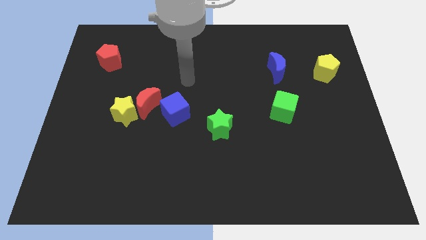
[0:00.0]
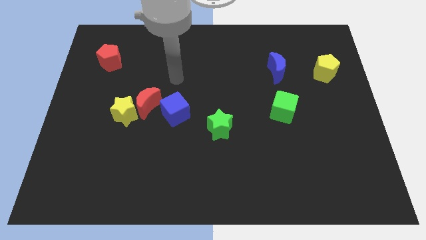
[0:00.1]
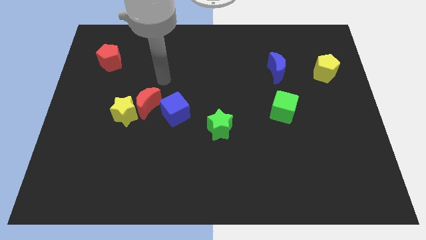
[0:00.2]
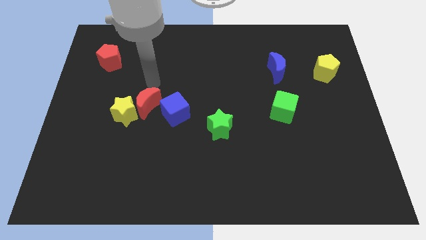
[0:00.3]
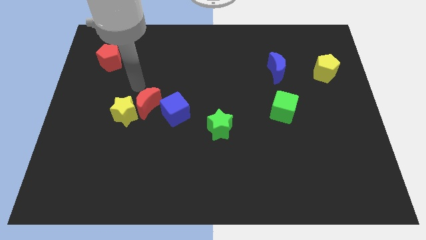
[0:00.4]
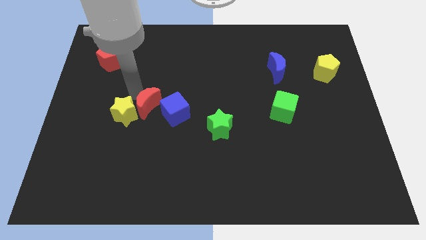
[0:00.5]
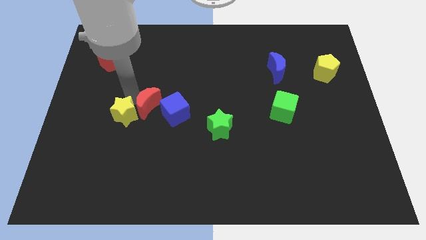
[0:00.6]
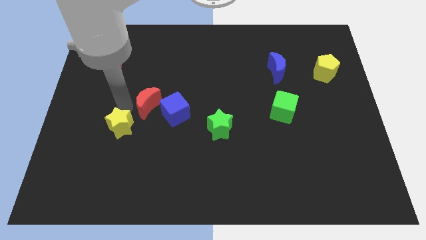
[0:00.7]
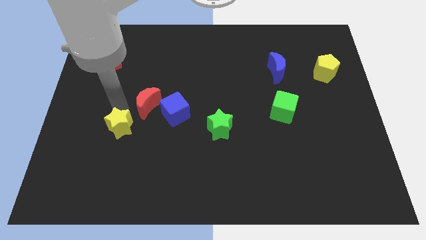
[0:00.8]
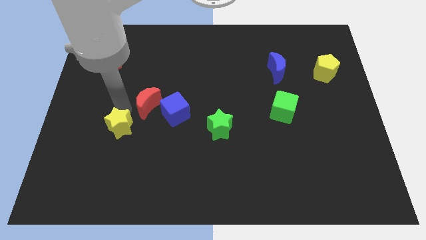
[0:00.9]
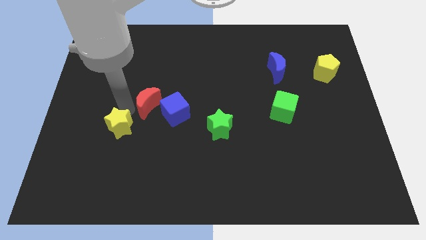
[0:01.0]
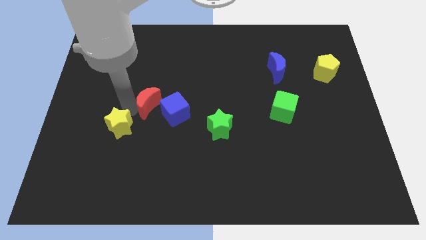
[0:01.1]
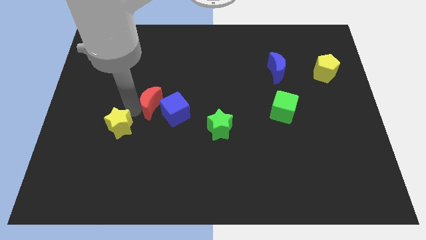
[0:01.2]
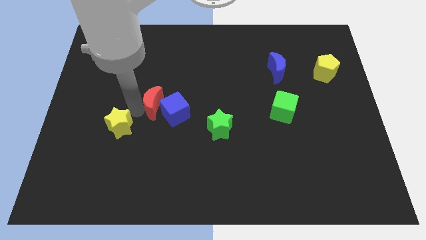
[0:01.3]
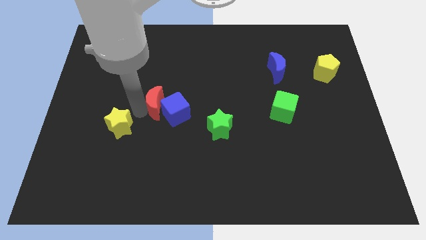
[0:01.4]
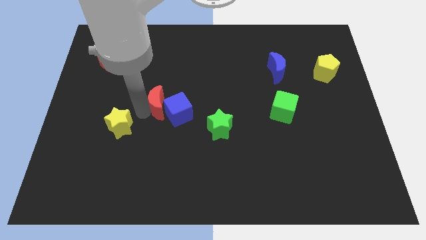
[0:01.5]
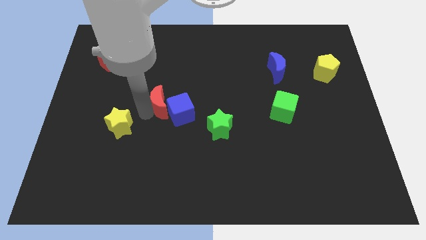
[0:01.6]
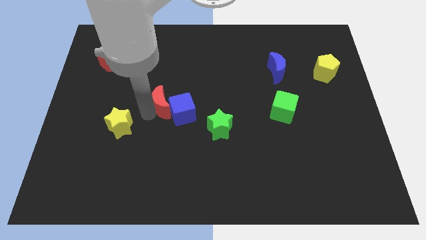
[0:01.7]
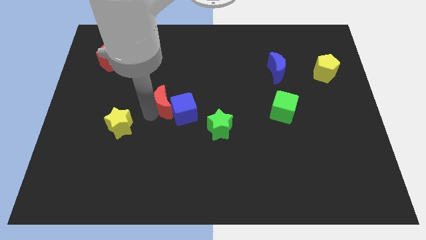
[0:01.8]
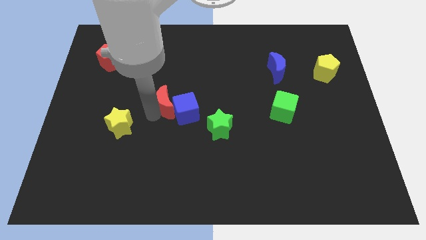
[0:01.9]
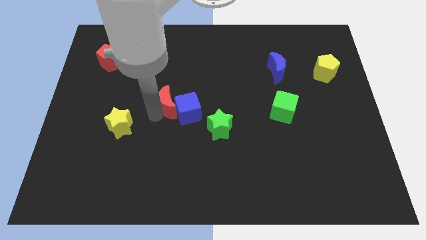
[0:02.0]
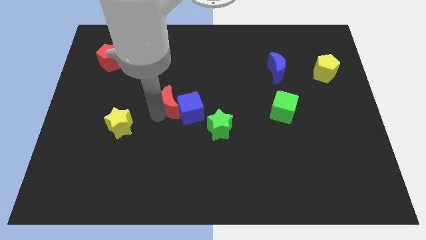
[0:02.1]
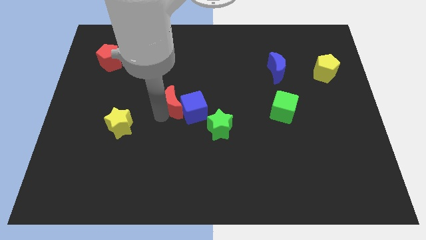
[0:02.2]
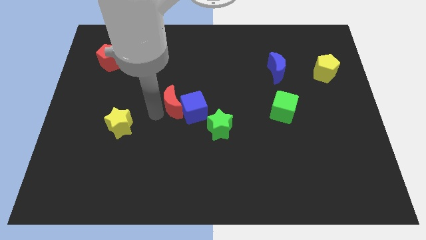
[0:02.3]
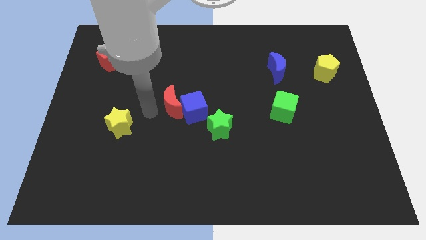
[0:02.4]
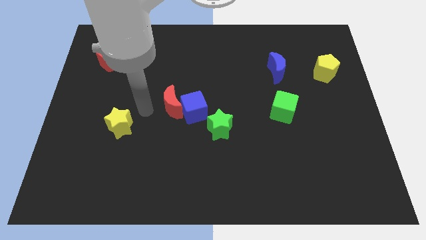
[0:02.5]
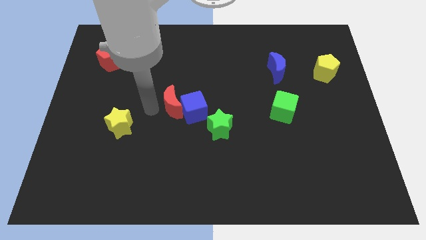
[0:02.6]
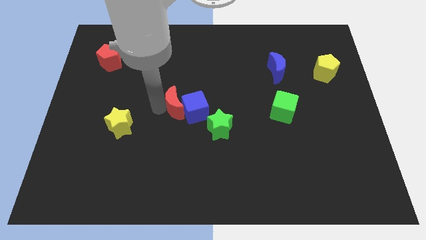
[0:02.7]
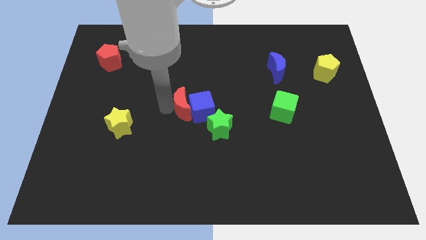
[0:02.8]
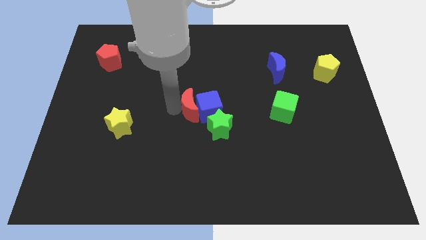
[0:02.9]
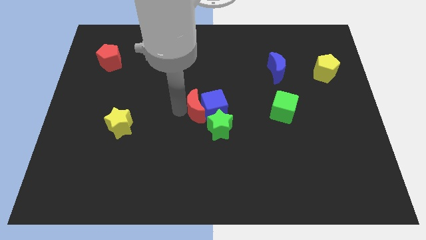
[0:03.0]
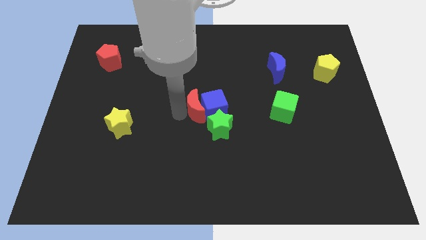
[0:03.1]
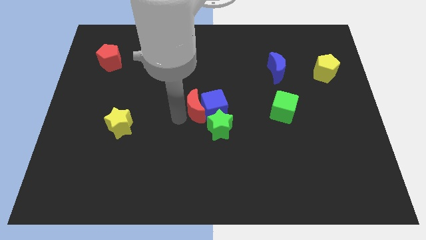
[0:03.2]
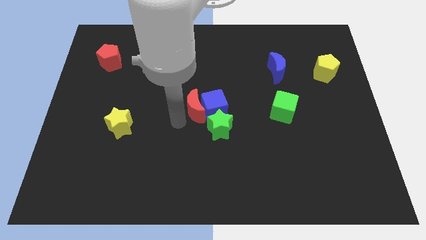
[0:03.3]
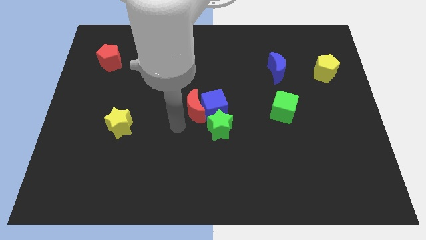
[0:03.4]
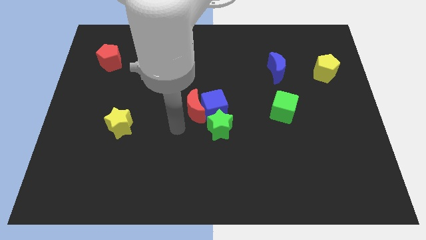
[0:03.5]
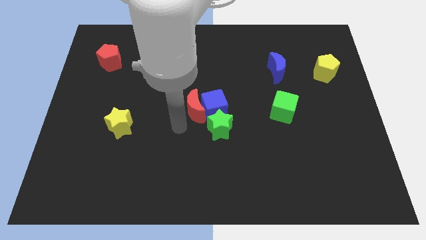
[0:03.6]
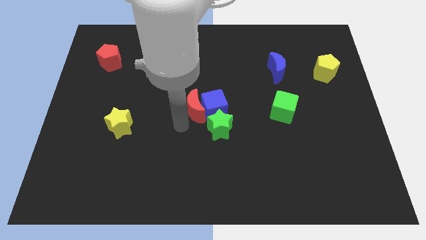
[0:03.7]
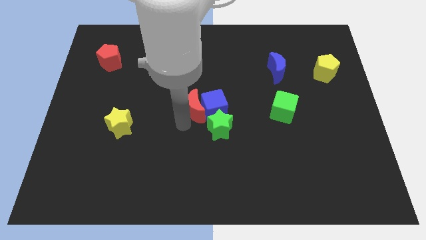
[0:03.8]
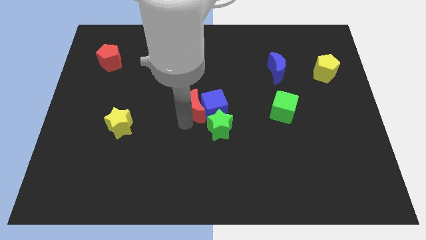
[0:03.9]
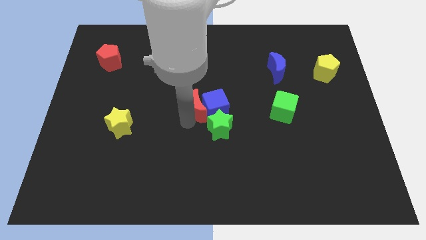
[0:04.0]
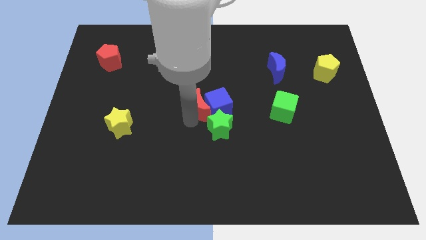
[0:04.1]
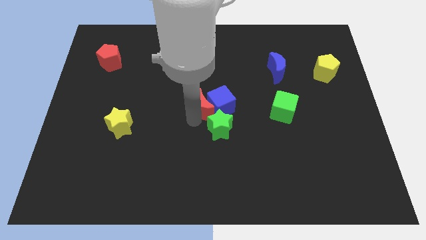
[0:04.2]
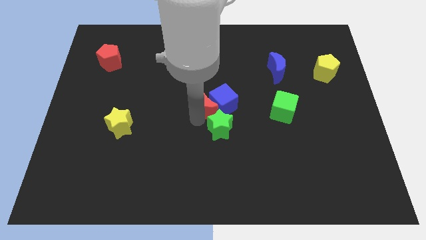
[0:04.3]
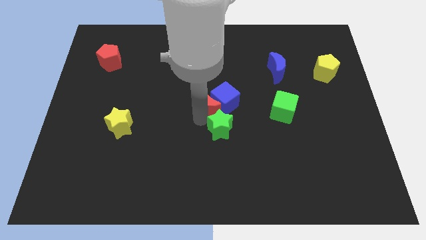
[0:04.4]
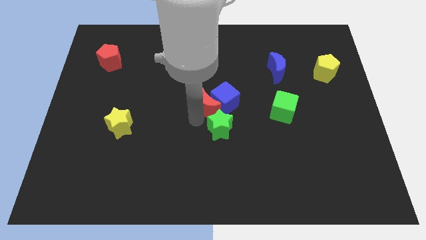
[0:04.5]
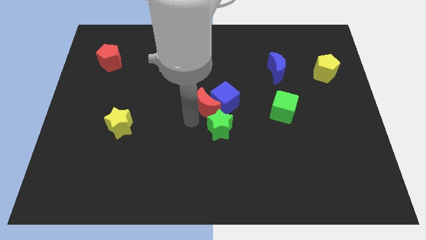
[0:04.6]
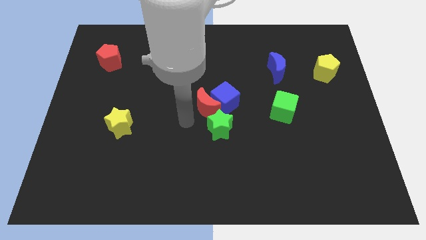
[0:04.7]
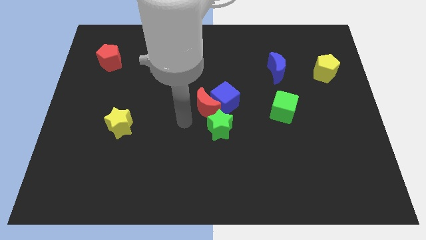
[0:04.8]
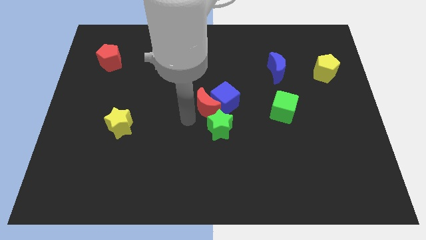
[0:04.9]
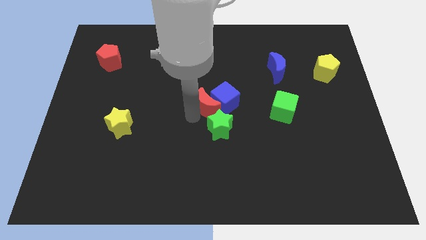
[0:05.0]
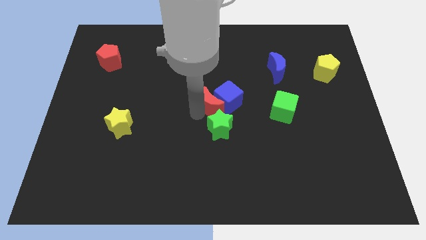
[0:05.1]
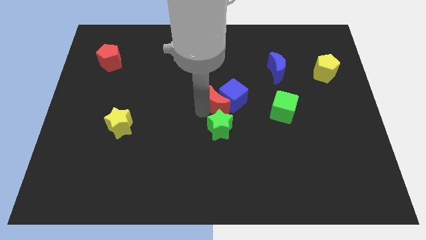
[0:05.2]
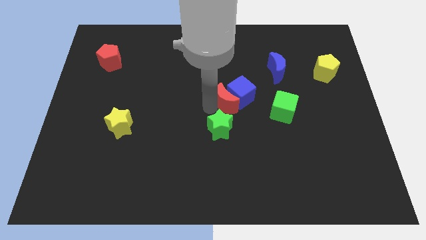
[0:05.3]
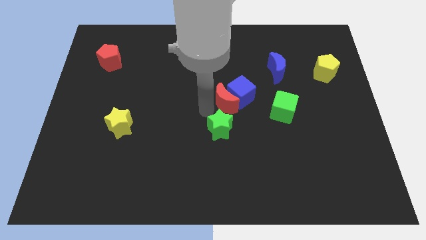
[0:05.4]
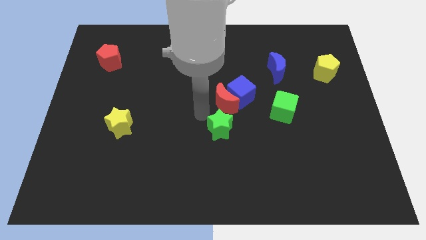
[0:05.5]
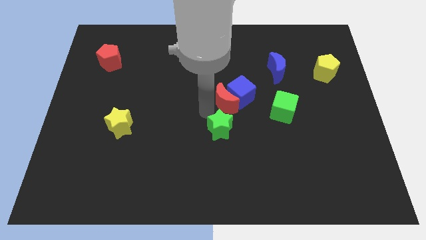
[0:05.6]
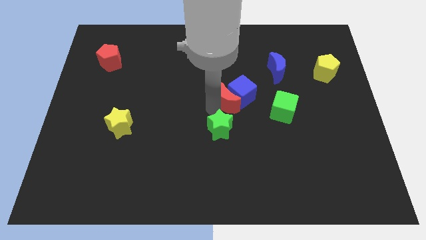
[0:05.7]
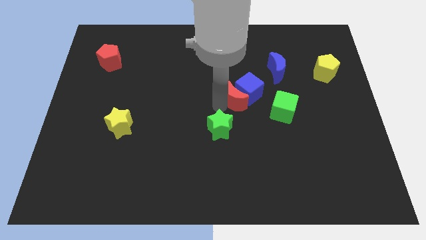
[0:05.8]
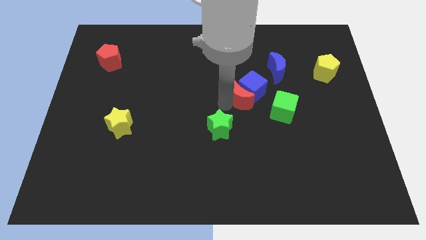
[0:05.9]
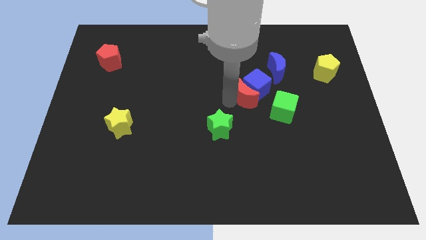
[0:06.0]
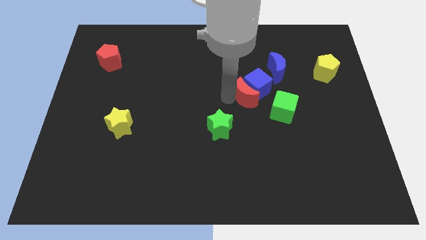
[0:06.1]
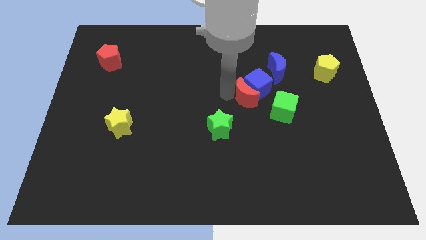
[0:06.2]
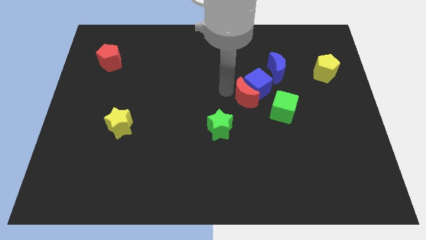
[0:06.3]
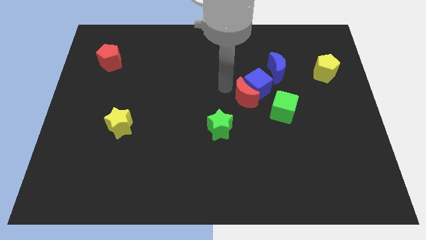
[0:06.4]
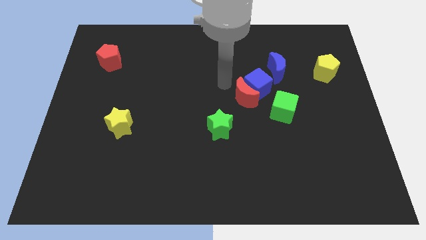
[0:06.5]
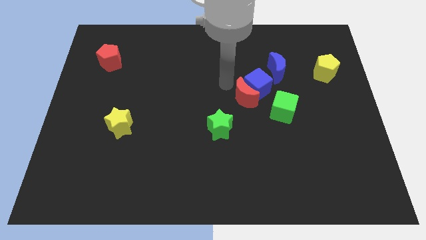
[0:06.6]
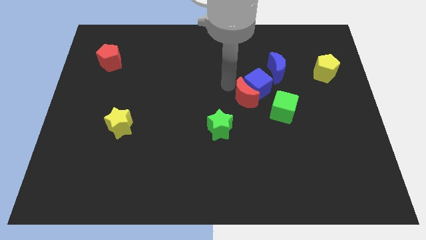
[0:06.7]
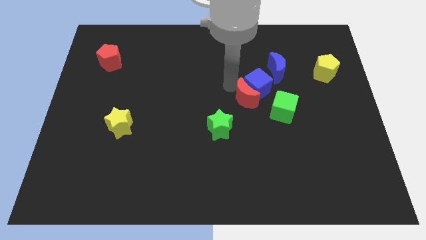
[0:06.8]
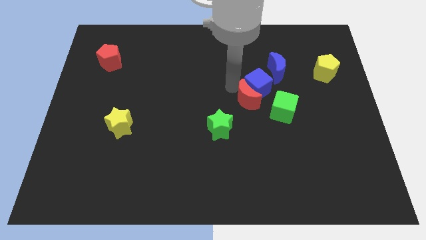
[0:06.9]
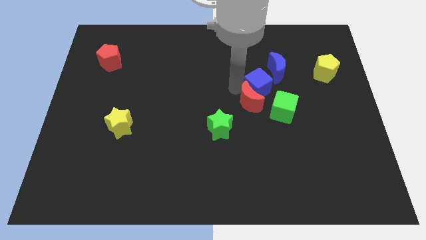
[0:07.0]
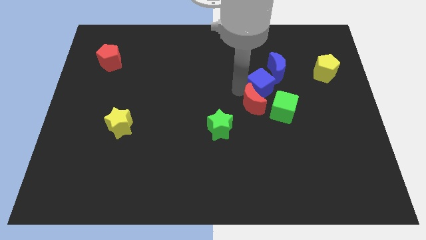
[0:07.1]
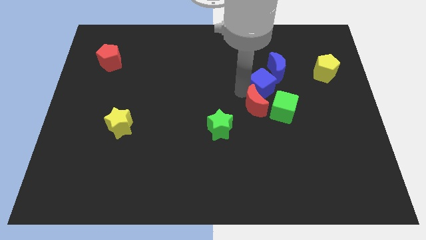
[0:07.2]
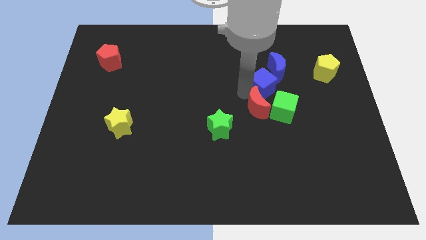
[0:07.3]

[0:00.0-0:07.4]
put the red moon close to the green cube
